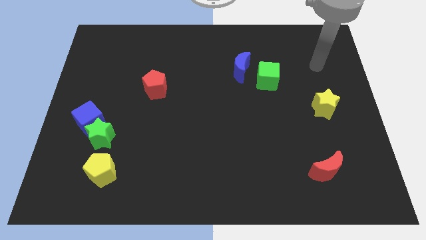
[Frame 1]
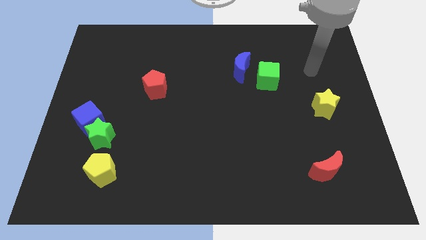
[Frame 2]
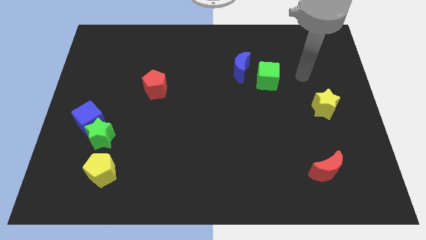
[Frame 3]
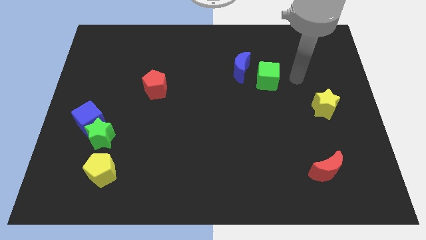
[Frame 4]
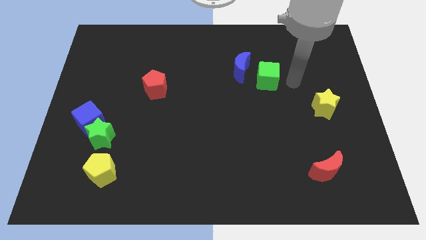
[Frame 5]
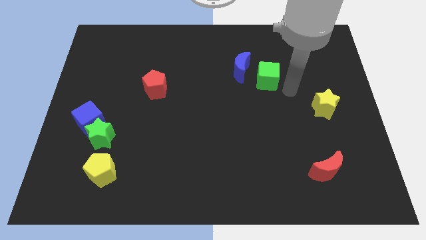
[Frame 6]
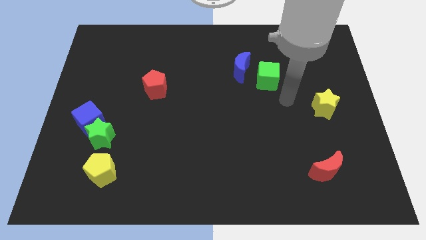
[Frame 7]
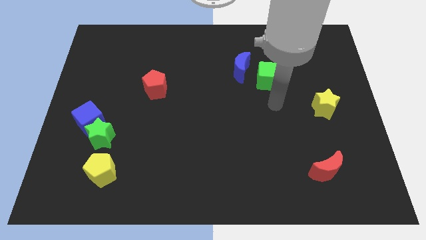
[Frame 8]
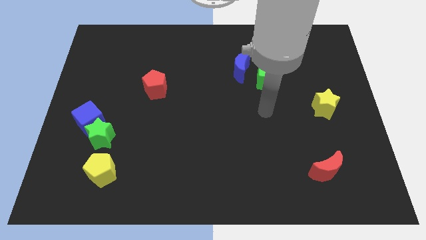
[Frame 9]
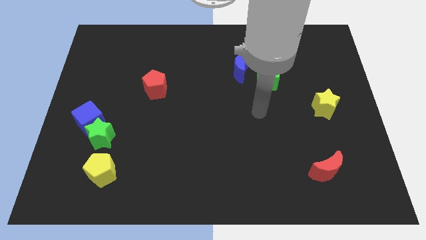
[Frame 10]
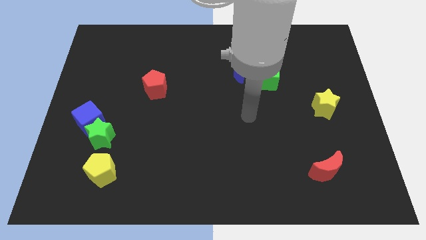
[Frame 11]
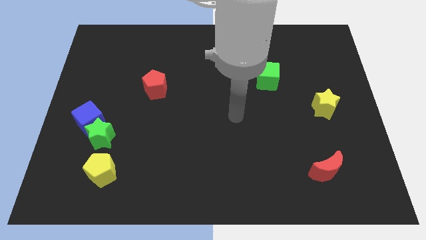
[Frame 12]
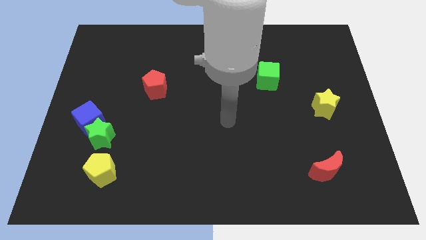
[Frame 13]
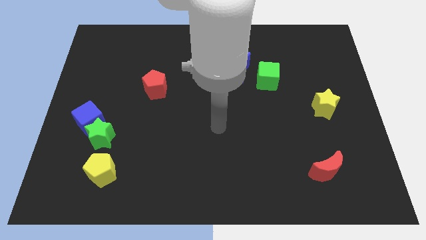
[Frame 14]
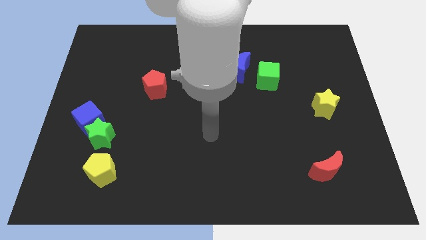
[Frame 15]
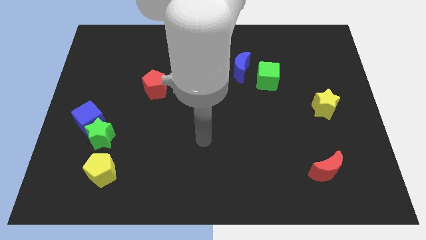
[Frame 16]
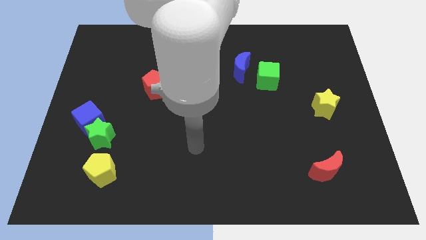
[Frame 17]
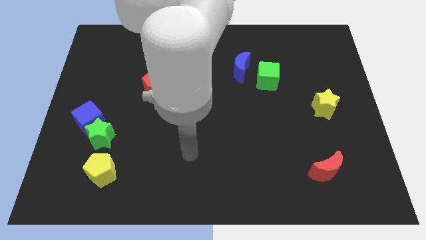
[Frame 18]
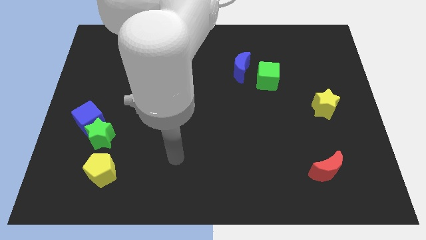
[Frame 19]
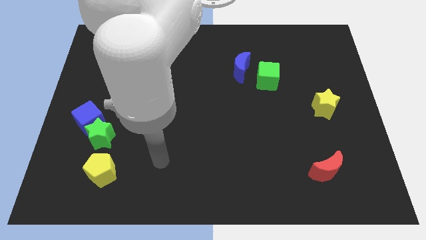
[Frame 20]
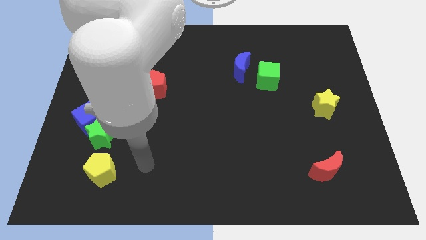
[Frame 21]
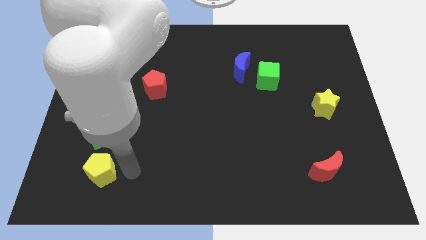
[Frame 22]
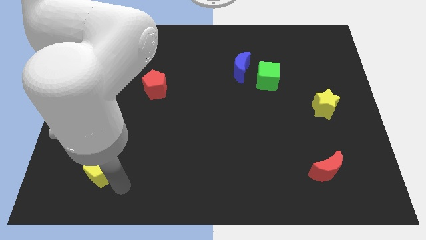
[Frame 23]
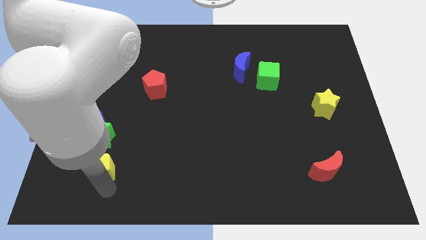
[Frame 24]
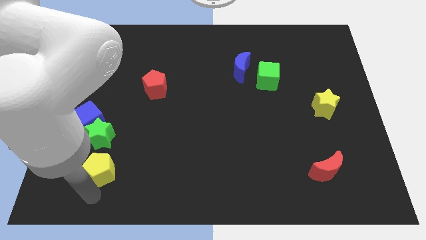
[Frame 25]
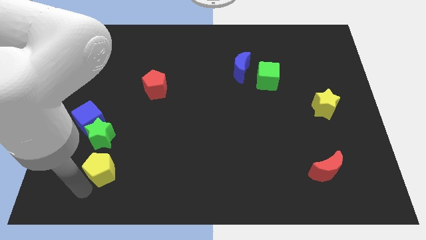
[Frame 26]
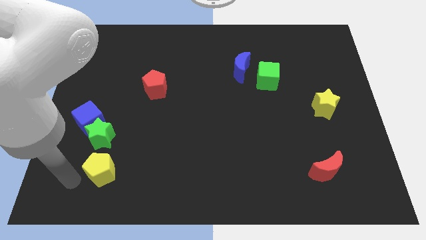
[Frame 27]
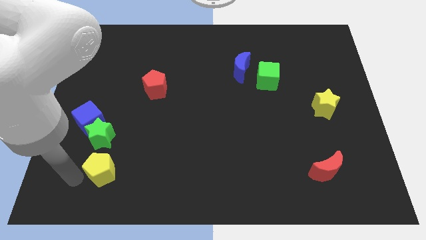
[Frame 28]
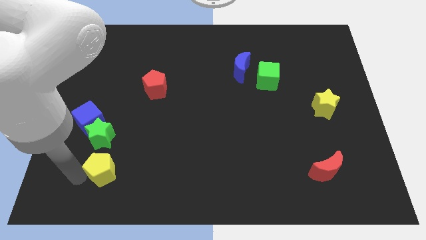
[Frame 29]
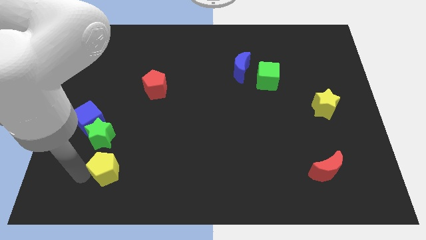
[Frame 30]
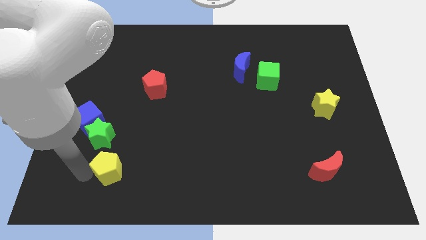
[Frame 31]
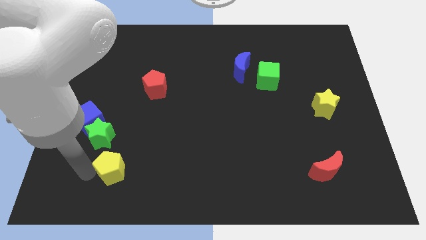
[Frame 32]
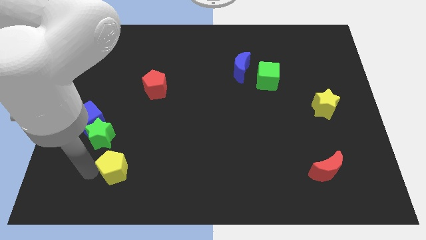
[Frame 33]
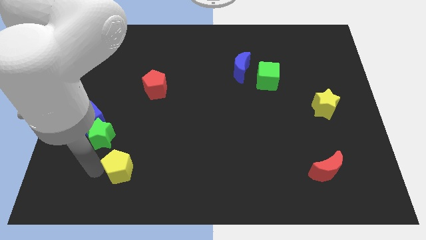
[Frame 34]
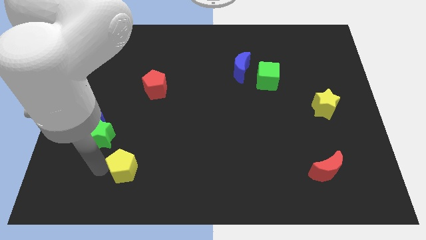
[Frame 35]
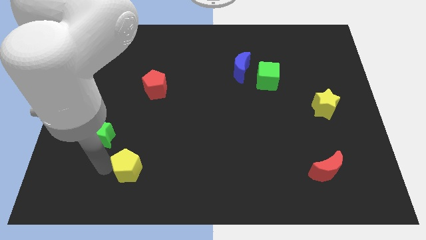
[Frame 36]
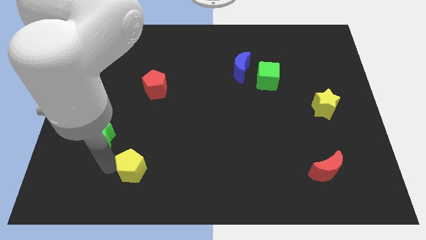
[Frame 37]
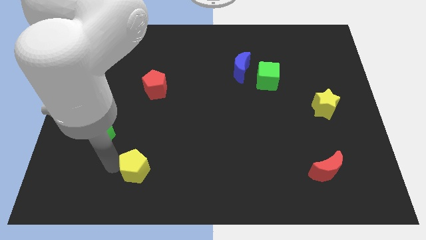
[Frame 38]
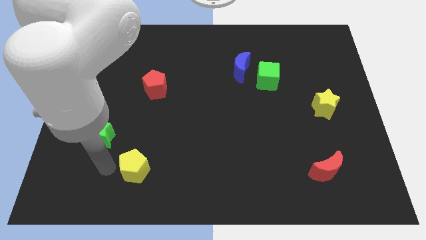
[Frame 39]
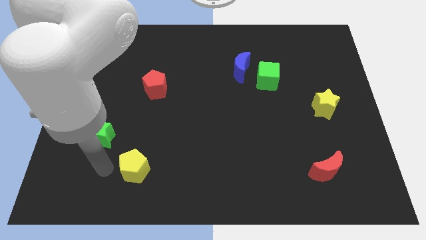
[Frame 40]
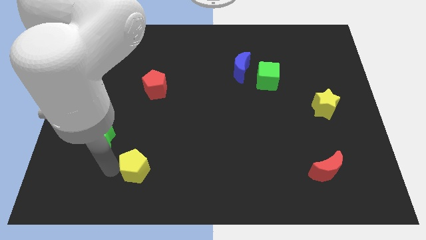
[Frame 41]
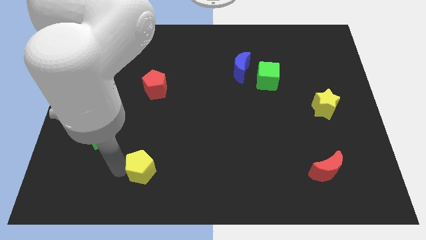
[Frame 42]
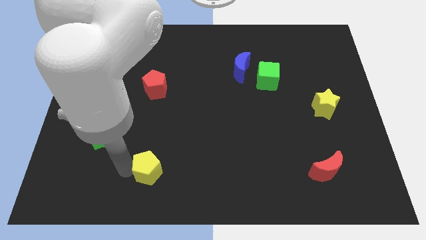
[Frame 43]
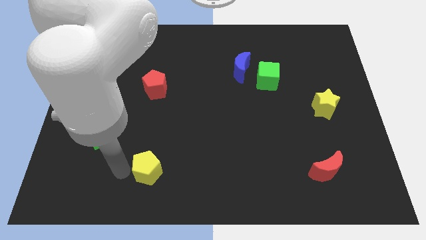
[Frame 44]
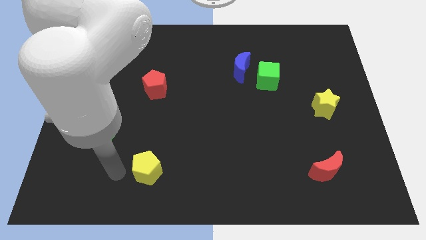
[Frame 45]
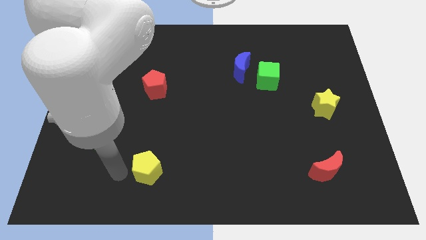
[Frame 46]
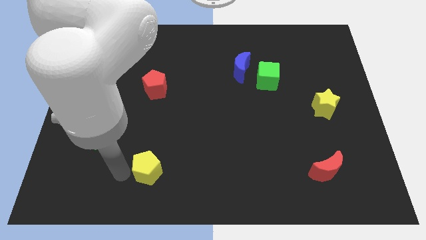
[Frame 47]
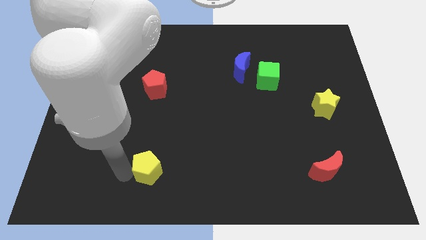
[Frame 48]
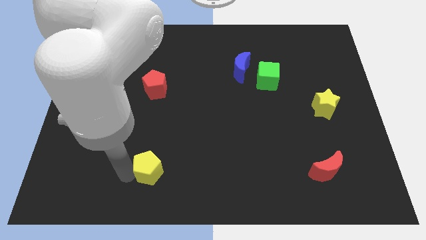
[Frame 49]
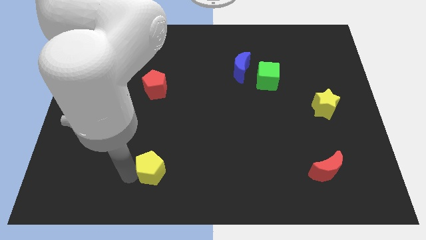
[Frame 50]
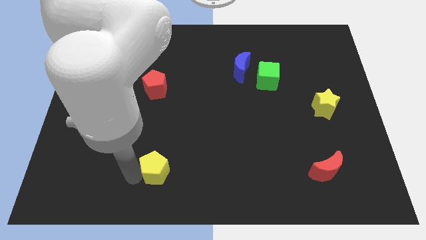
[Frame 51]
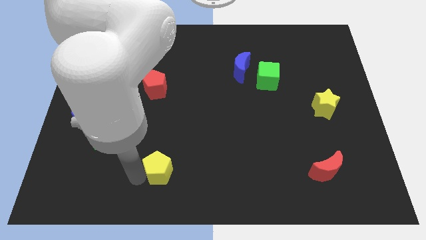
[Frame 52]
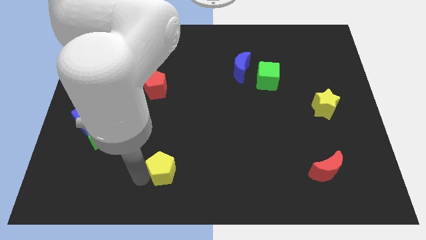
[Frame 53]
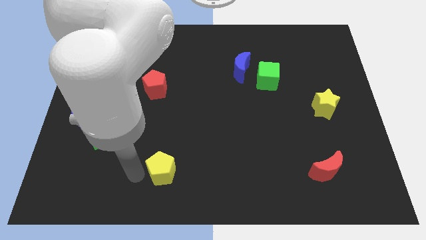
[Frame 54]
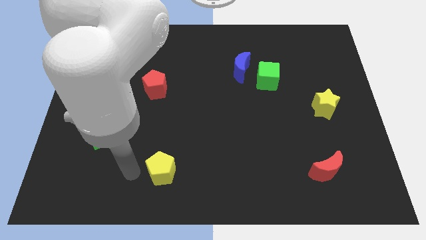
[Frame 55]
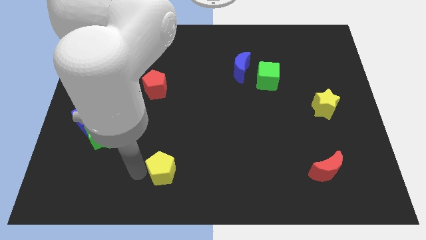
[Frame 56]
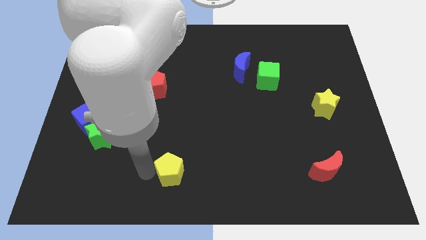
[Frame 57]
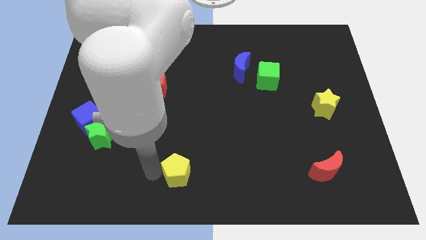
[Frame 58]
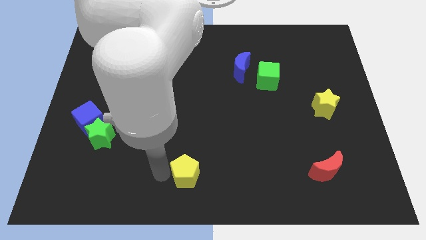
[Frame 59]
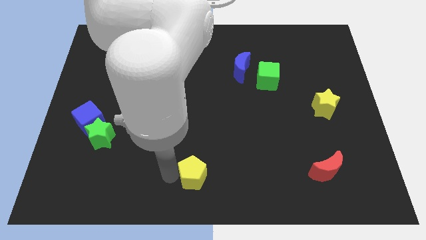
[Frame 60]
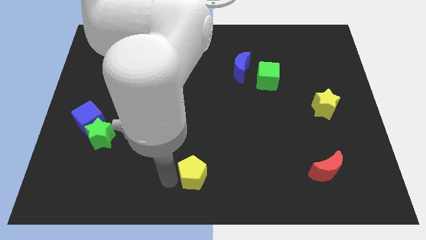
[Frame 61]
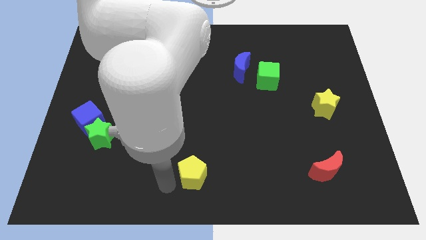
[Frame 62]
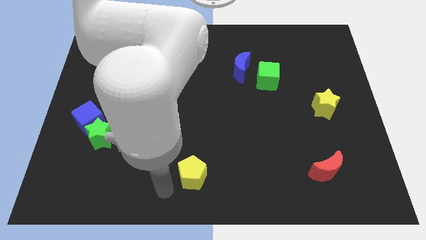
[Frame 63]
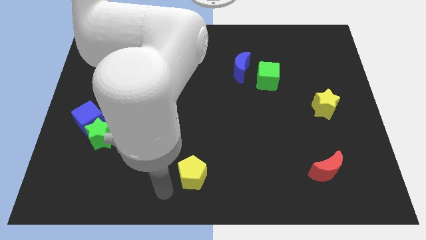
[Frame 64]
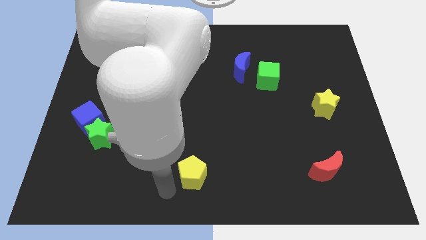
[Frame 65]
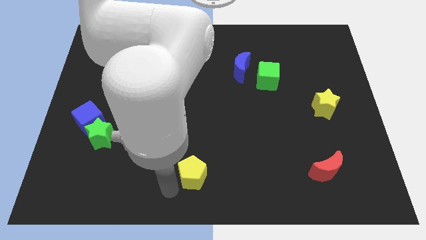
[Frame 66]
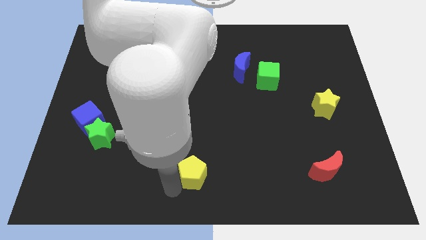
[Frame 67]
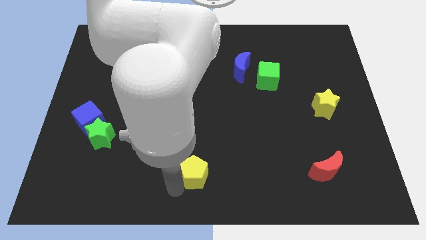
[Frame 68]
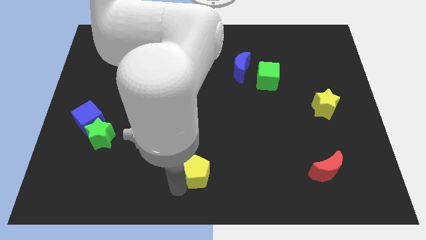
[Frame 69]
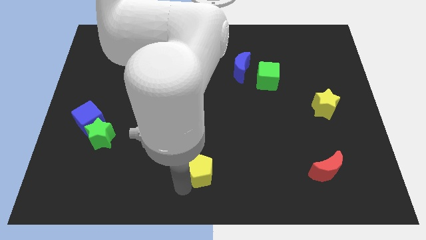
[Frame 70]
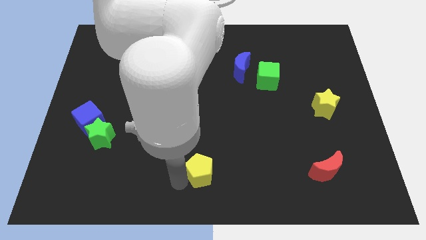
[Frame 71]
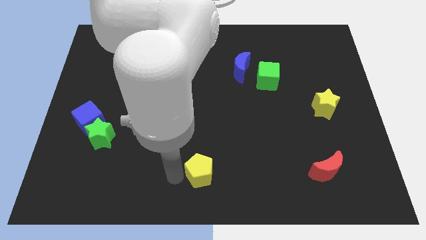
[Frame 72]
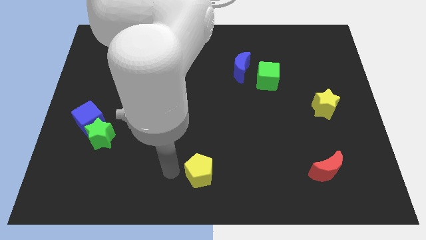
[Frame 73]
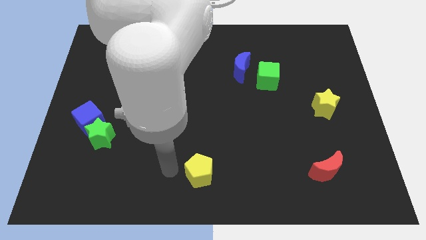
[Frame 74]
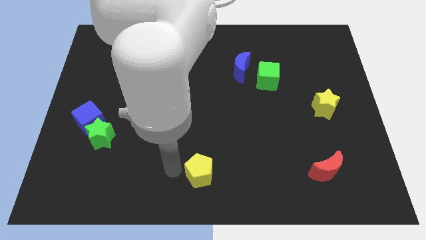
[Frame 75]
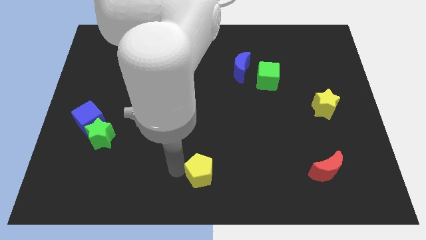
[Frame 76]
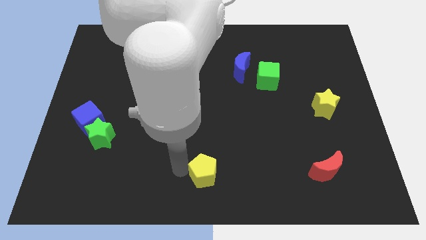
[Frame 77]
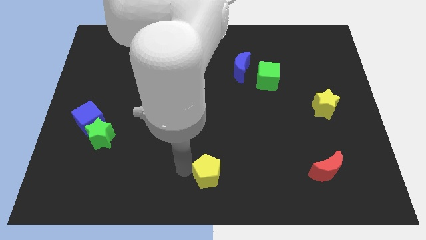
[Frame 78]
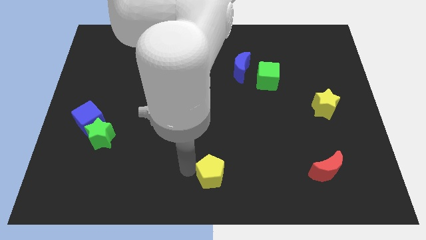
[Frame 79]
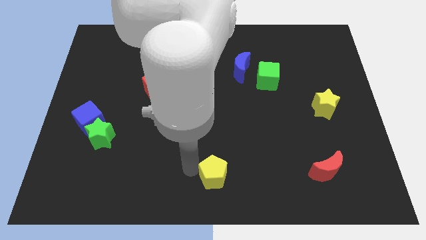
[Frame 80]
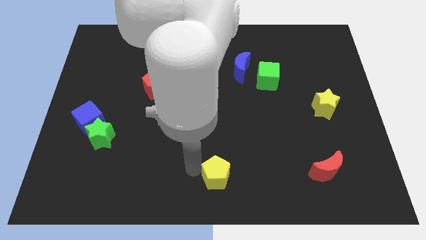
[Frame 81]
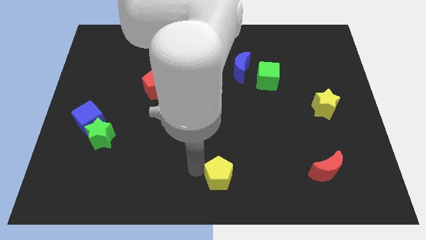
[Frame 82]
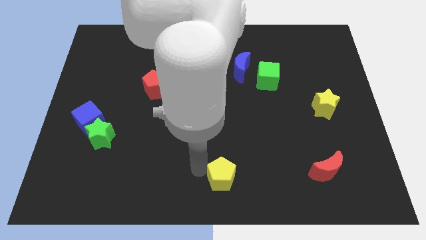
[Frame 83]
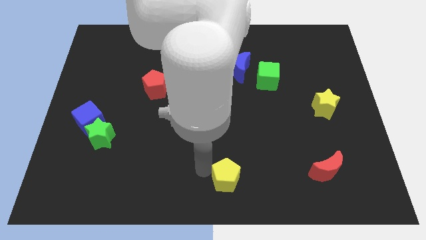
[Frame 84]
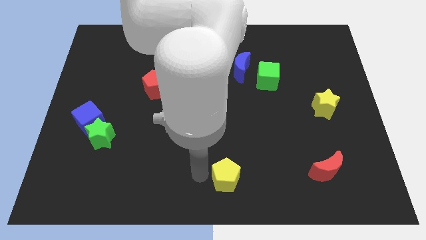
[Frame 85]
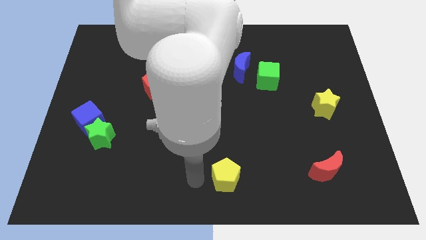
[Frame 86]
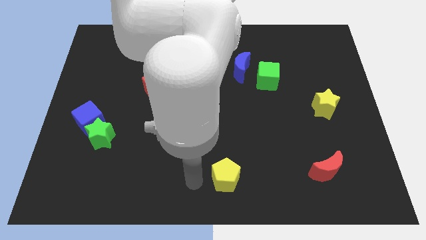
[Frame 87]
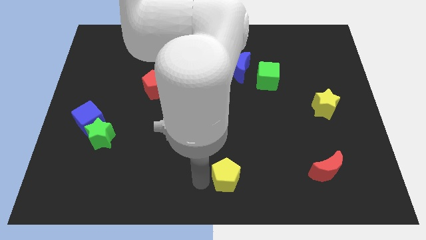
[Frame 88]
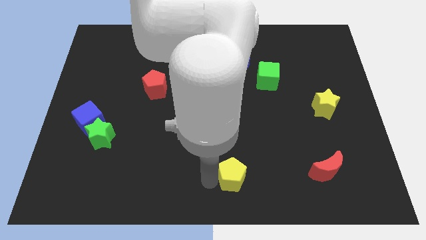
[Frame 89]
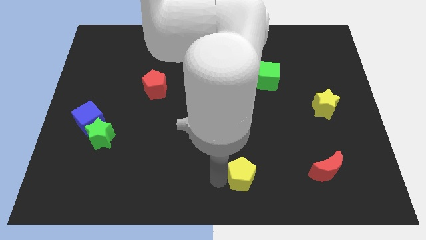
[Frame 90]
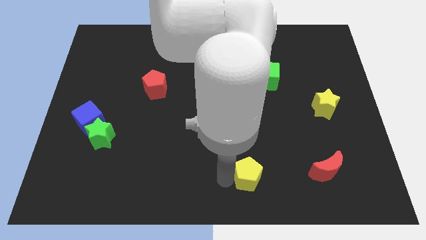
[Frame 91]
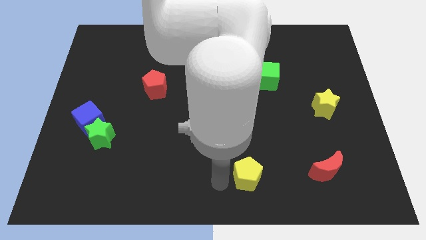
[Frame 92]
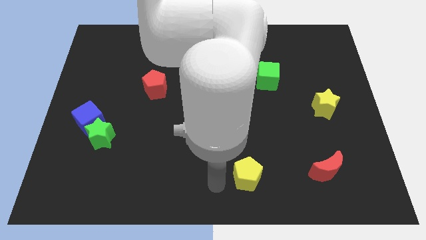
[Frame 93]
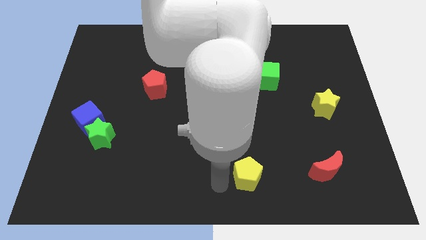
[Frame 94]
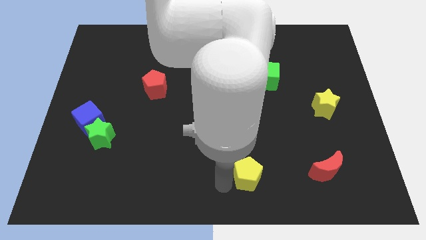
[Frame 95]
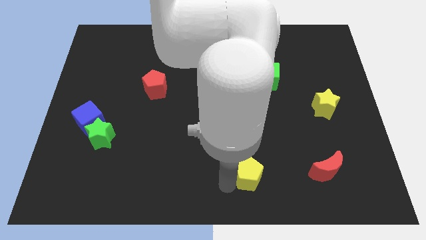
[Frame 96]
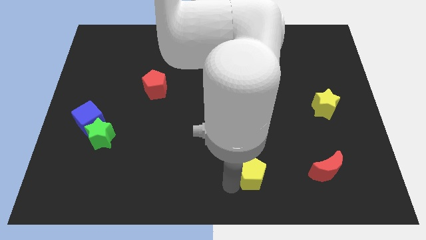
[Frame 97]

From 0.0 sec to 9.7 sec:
slide the yellow pentagon to the left side of the red moon
